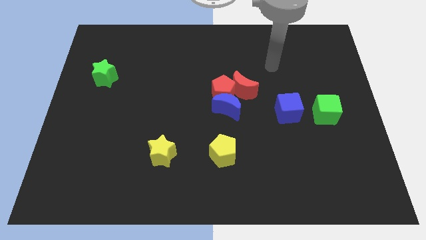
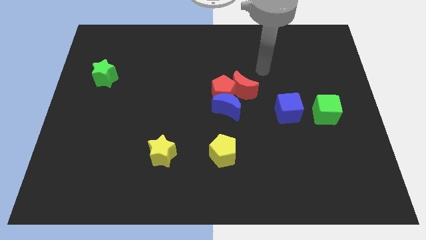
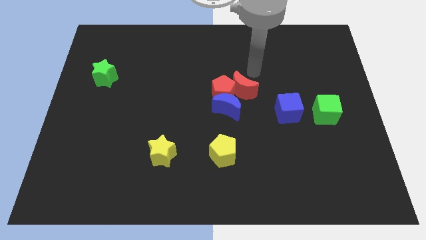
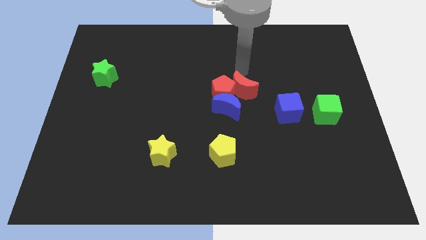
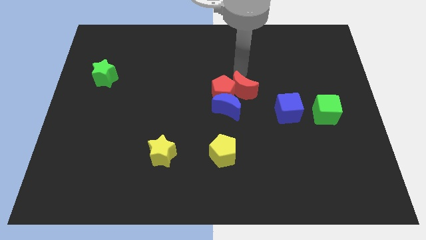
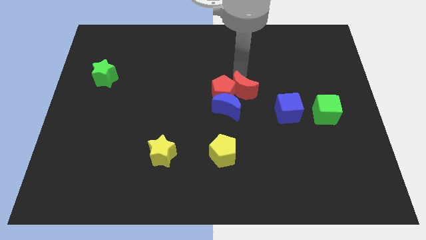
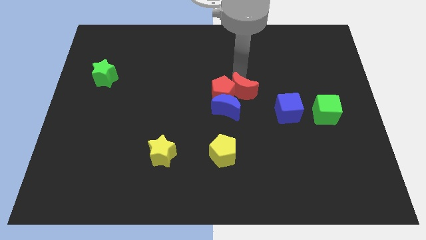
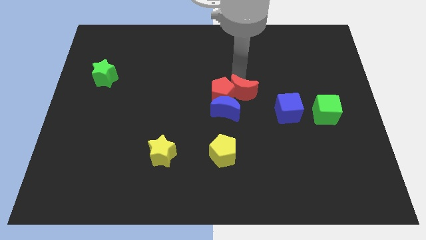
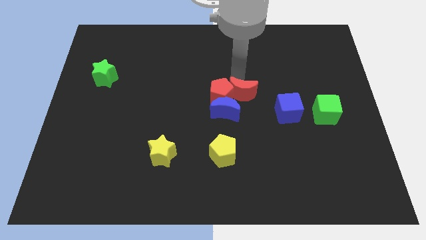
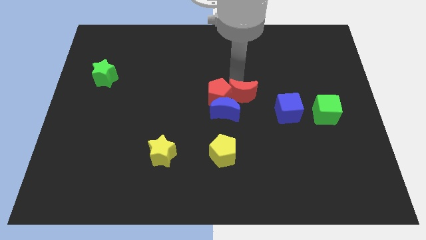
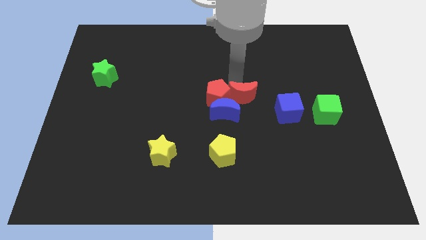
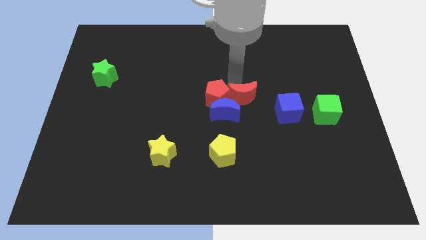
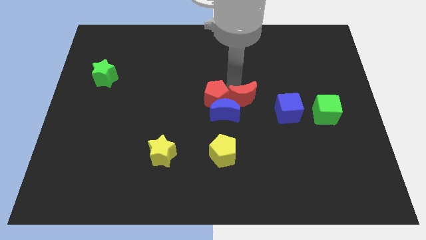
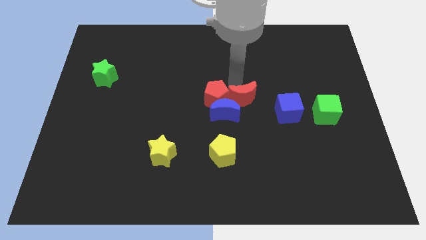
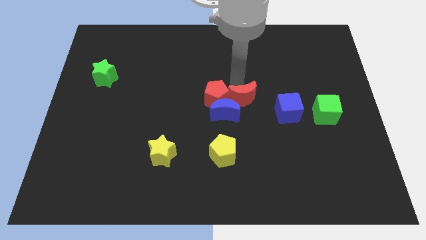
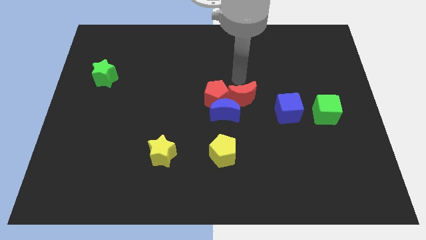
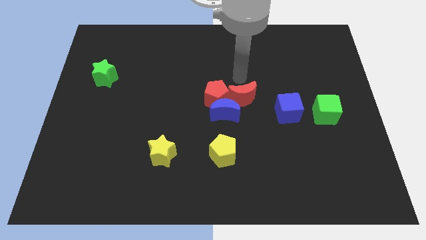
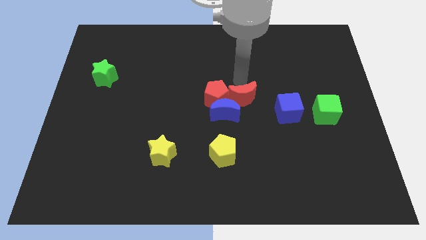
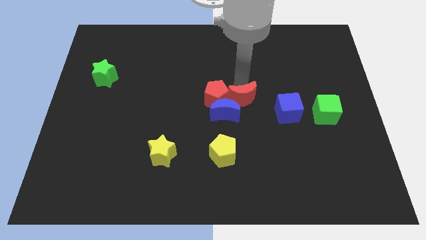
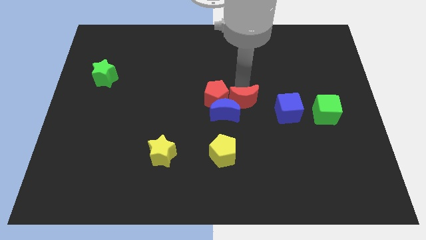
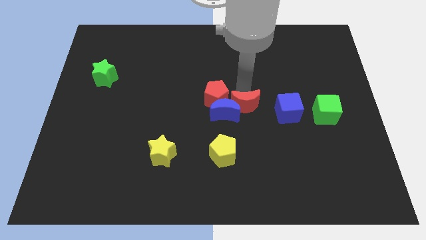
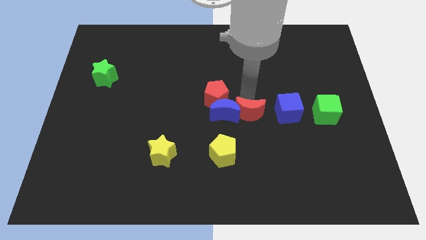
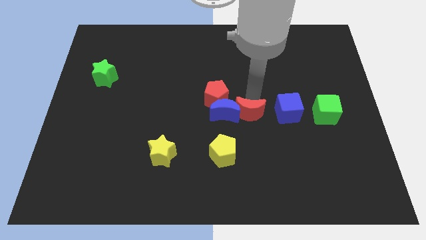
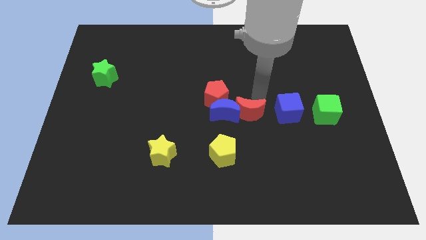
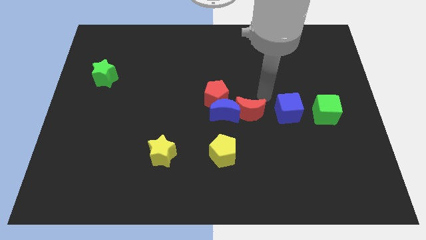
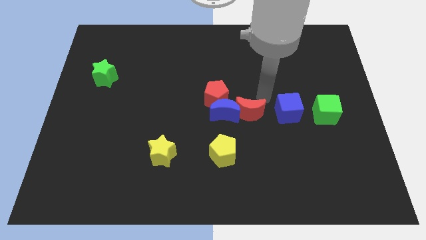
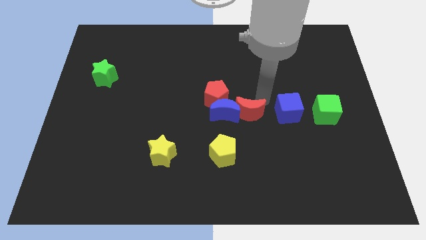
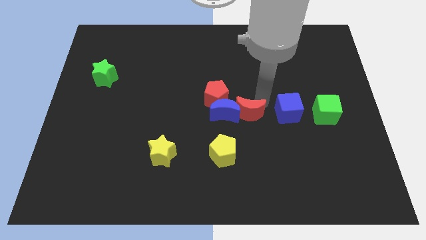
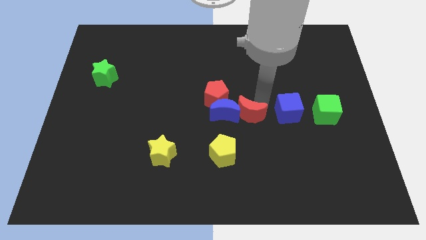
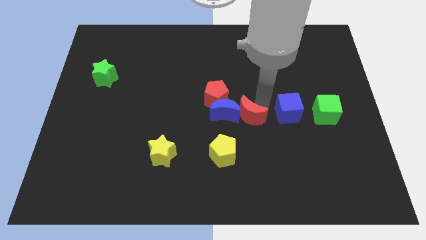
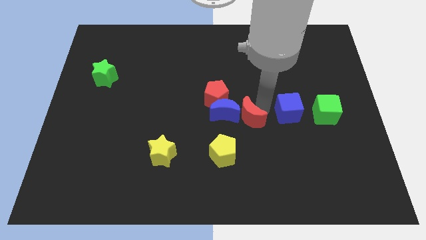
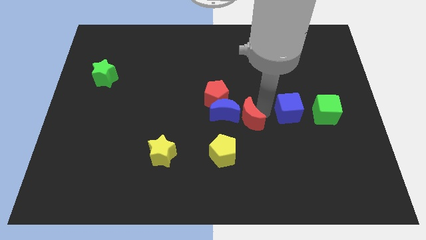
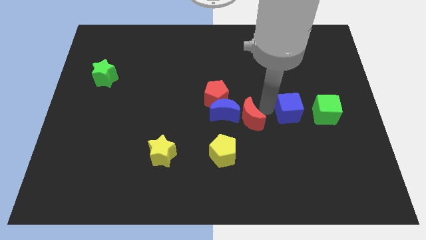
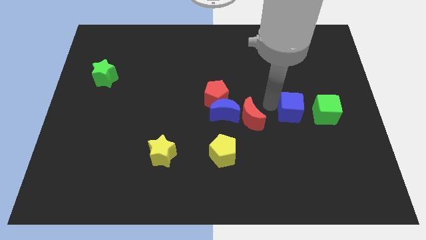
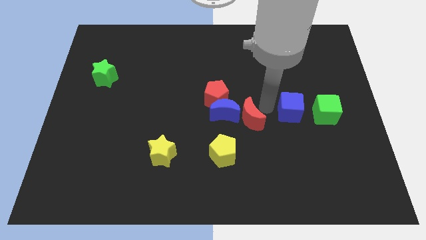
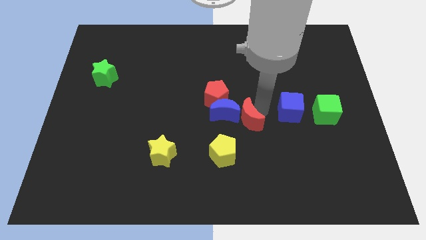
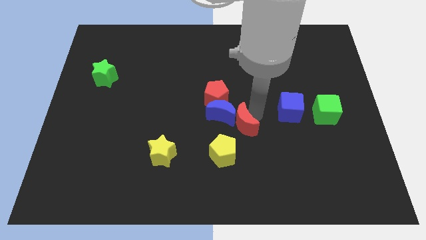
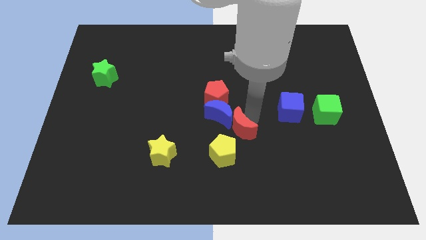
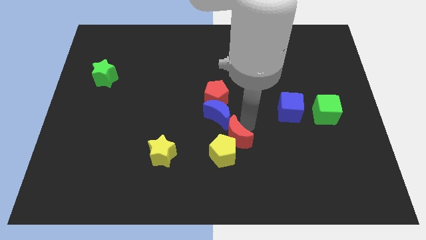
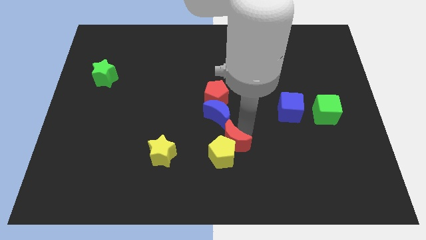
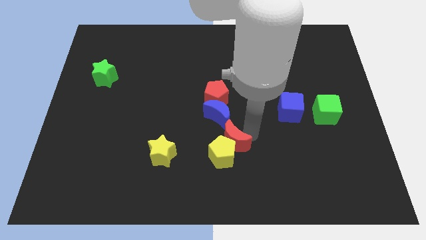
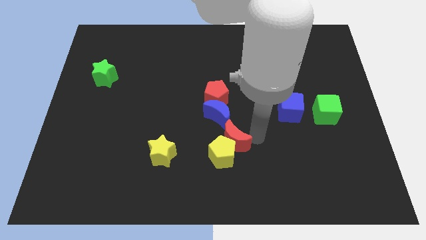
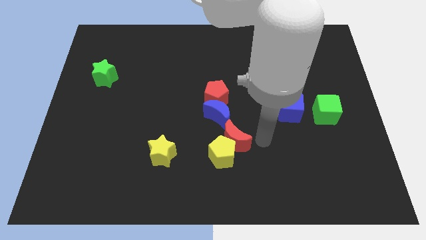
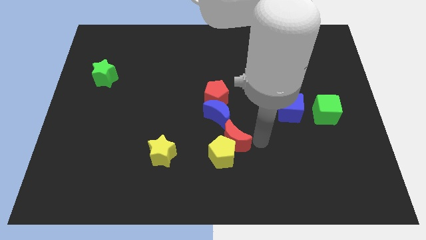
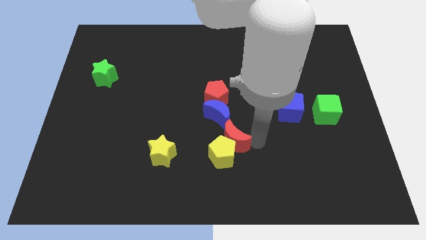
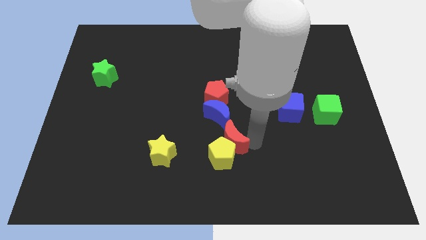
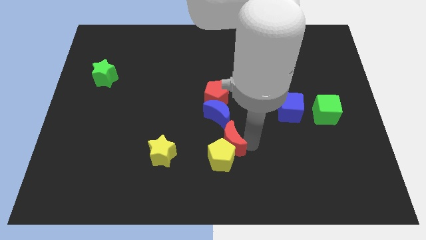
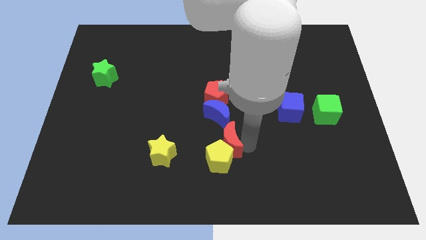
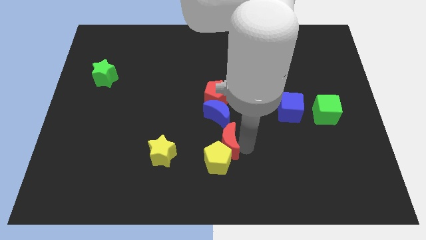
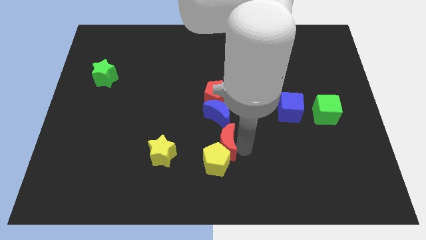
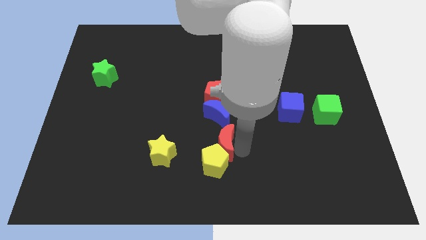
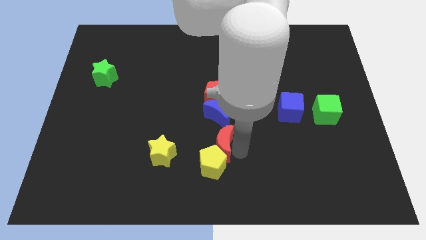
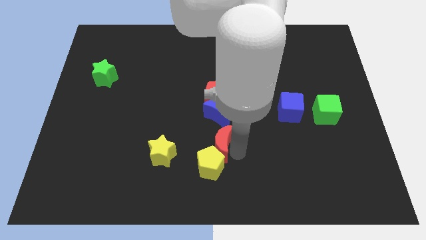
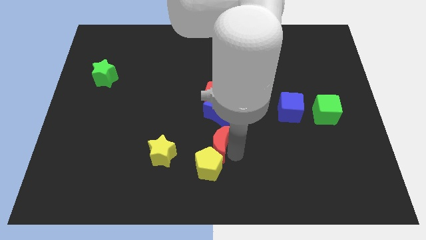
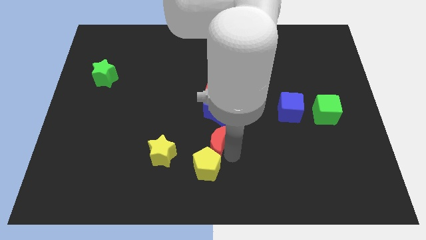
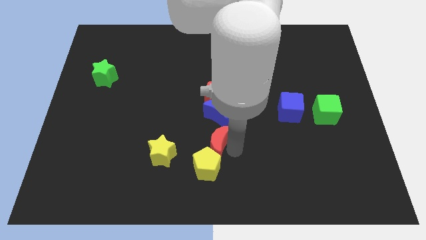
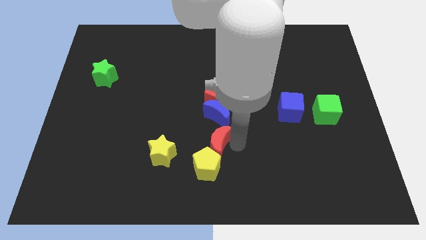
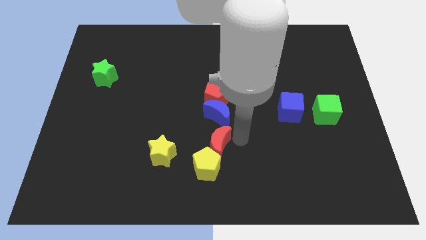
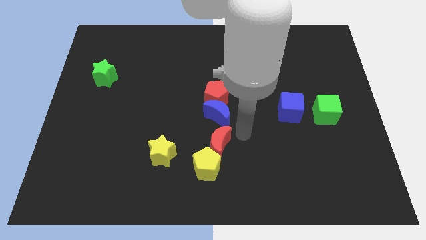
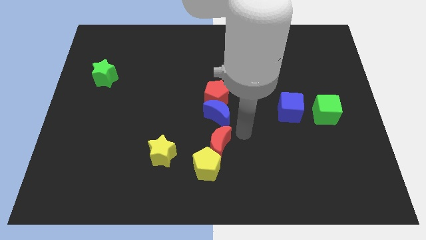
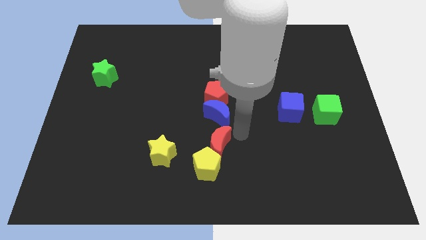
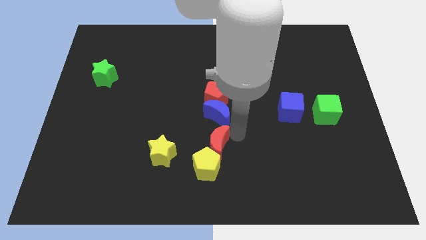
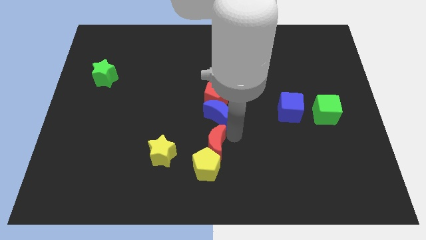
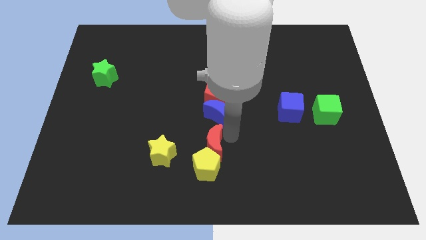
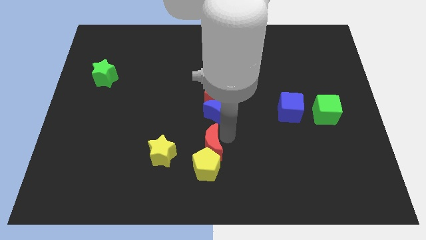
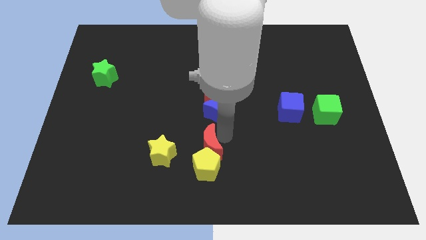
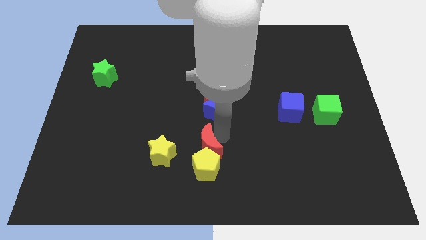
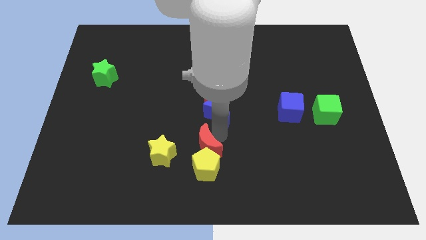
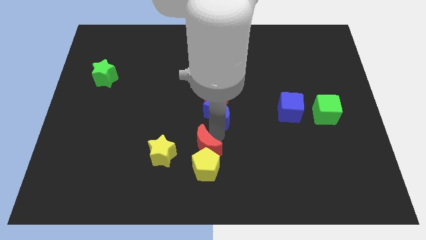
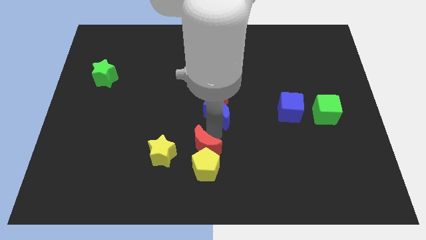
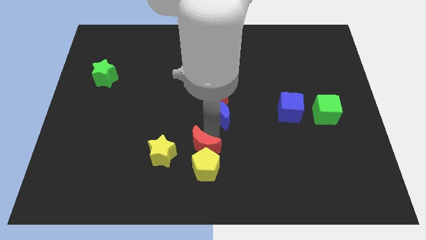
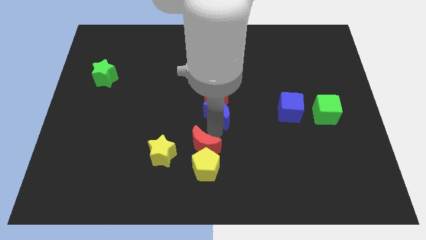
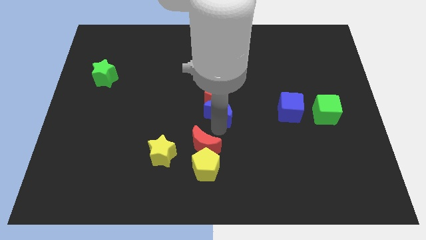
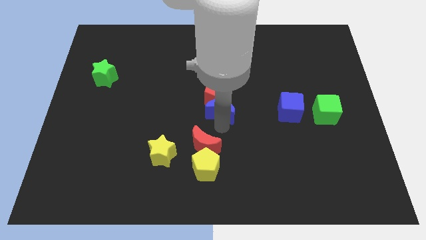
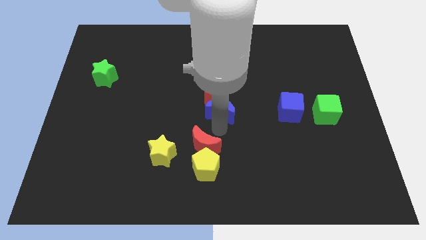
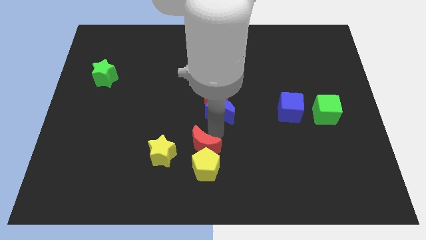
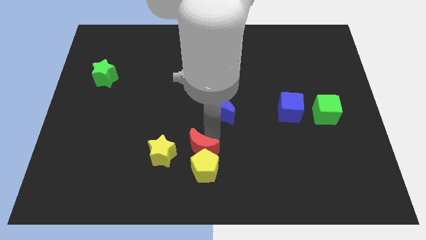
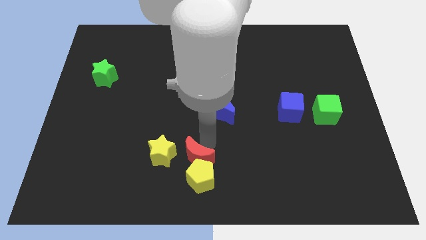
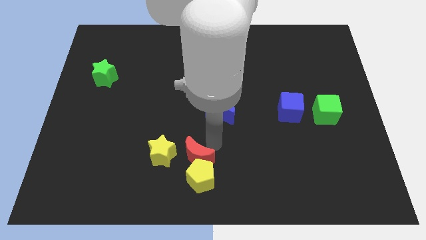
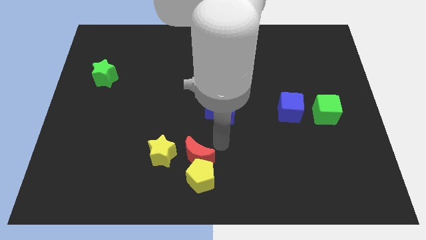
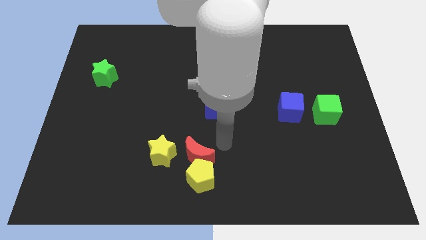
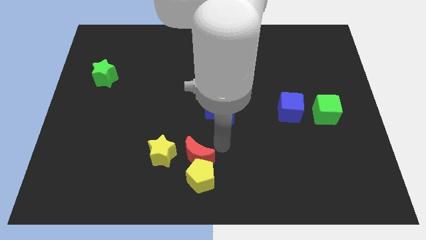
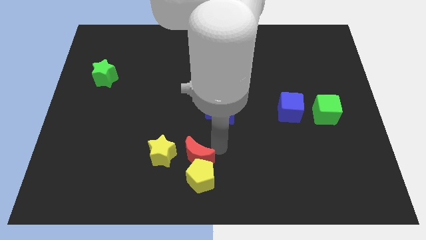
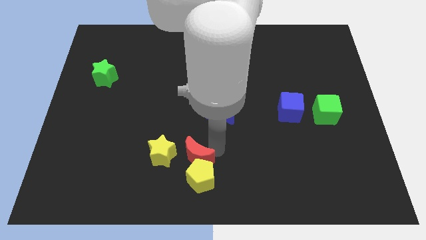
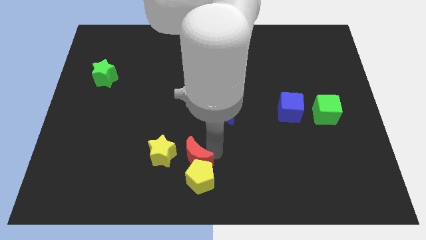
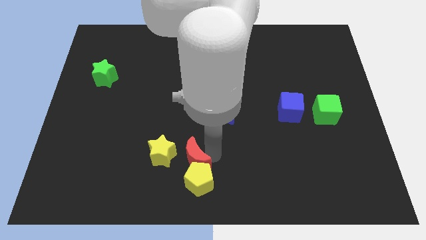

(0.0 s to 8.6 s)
slide the red moon diagonally downwards and to the left
